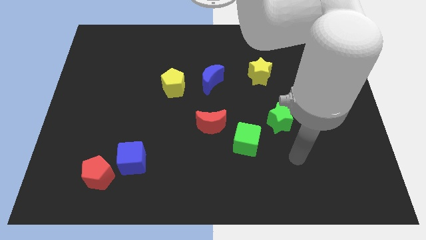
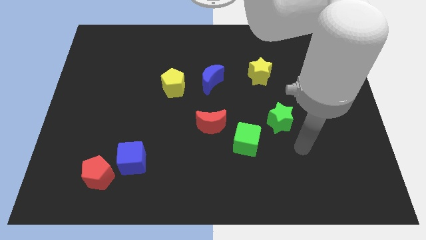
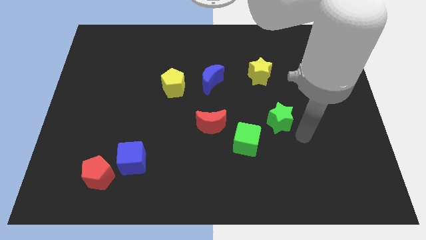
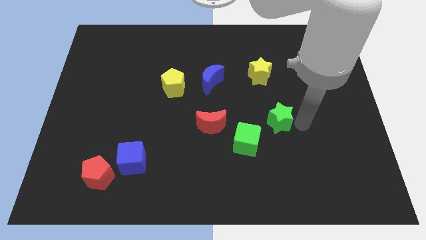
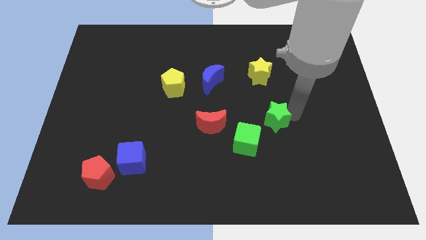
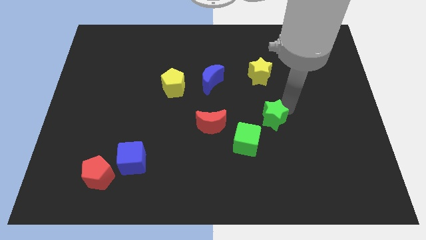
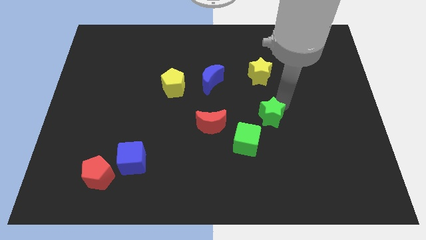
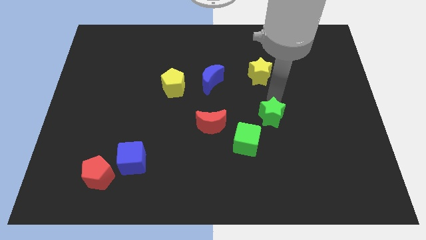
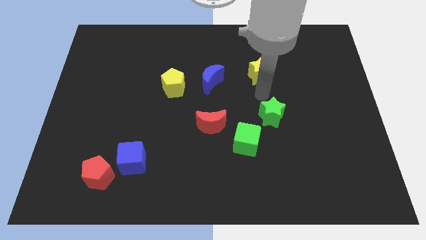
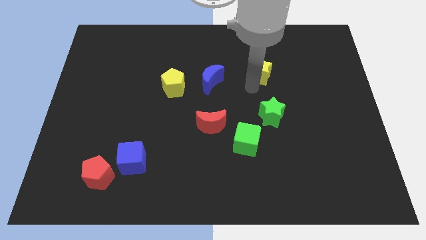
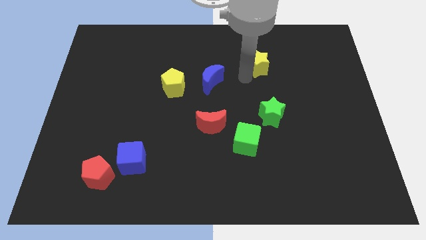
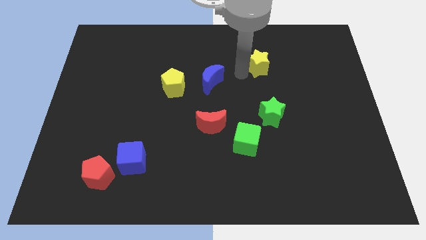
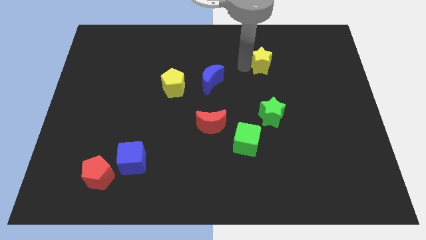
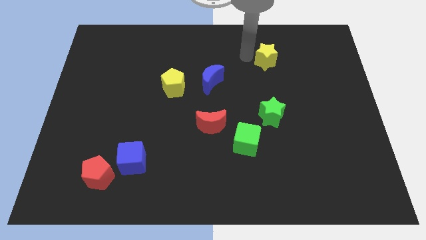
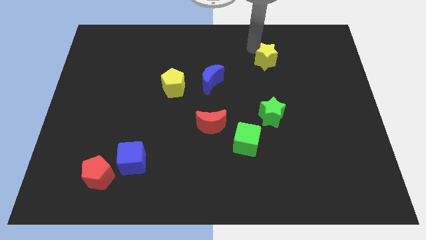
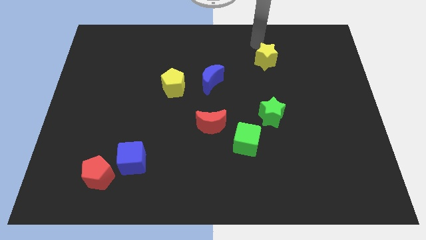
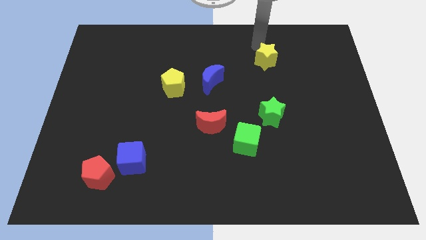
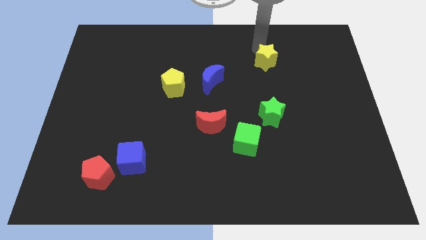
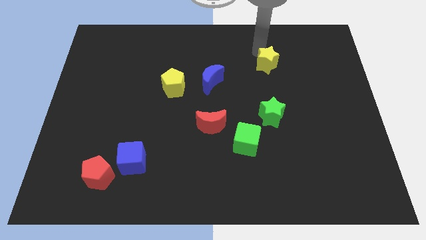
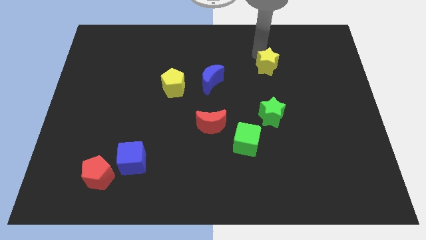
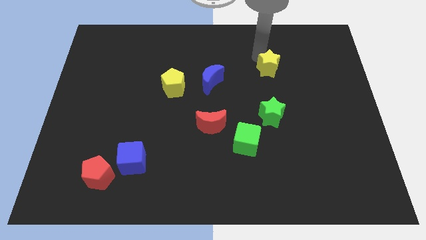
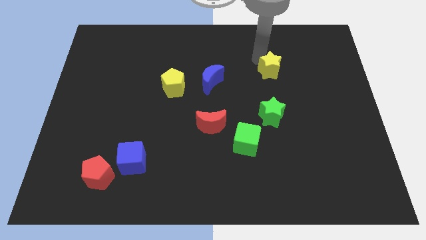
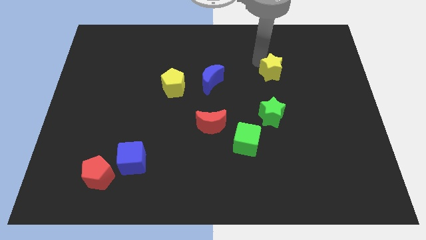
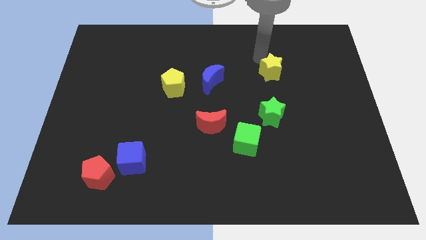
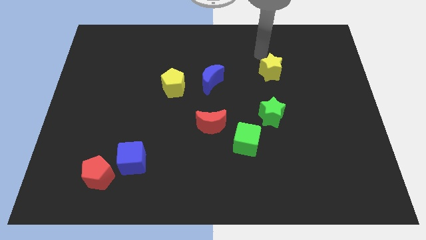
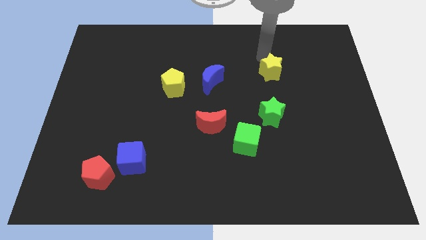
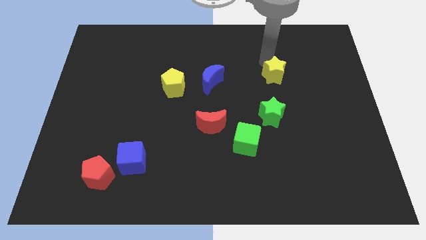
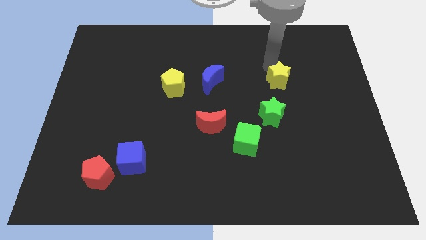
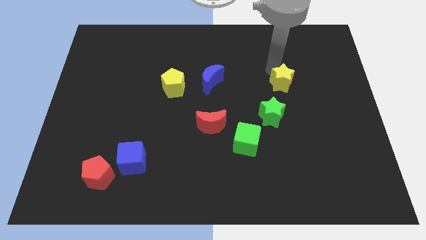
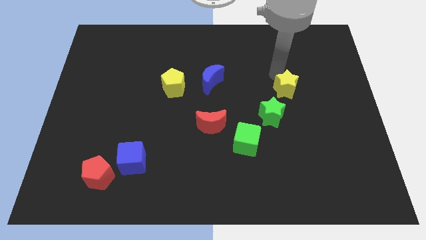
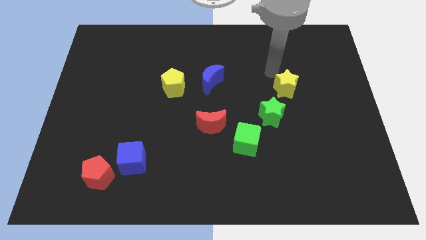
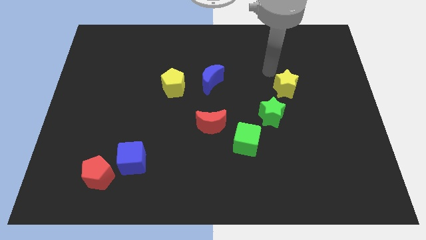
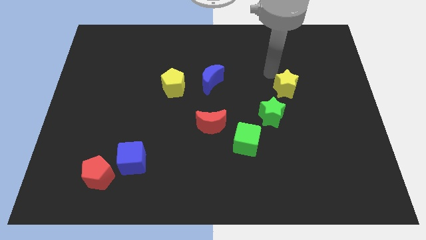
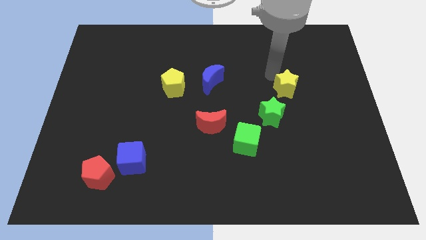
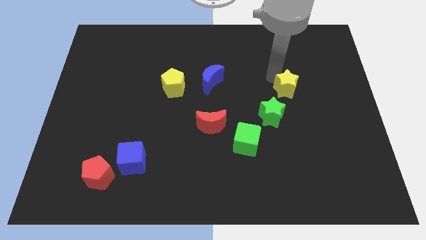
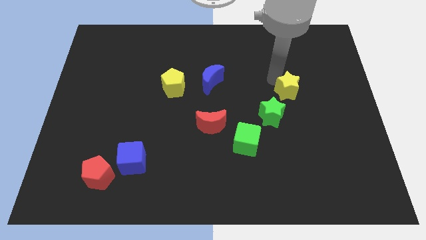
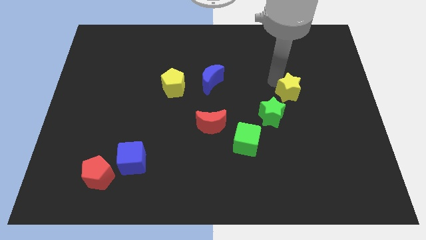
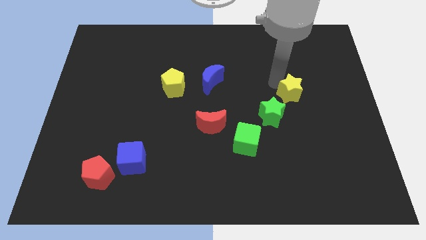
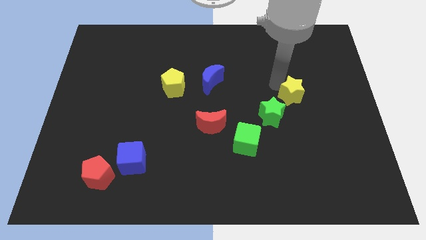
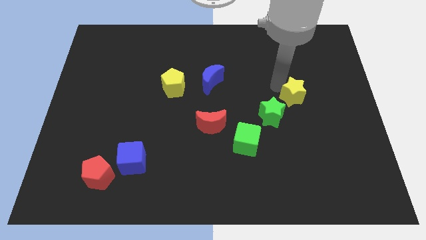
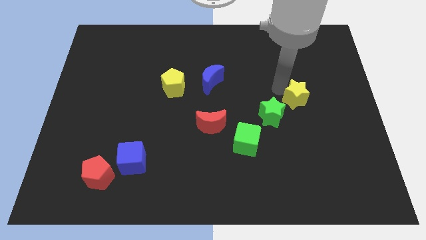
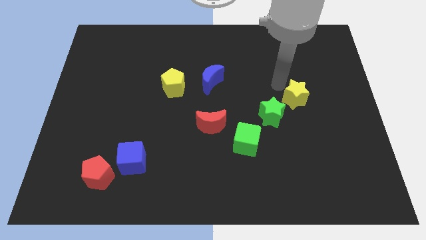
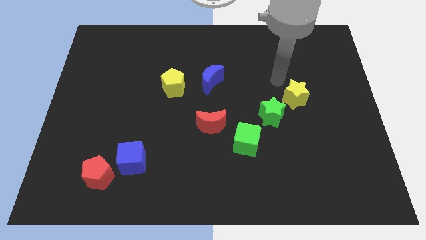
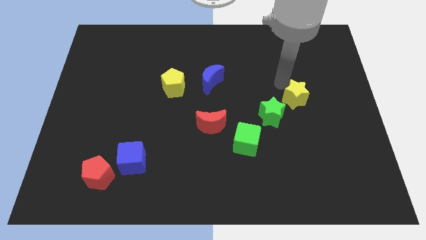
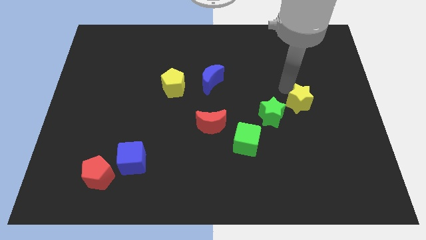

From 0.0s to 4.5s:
move the yellow star just right of the green star

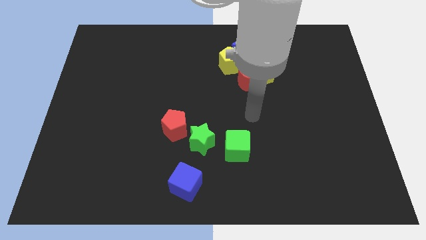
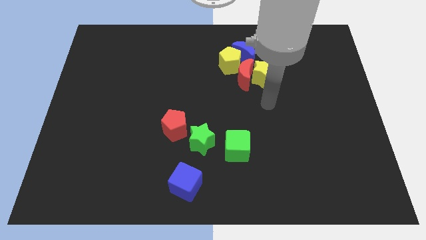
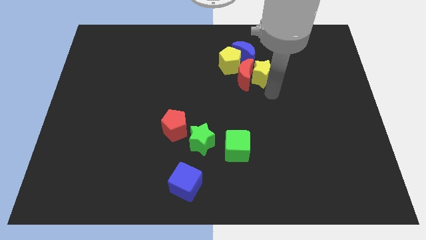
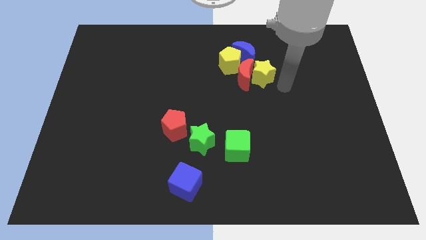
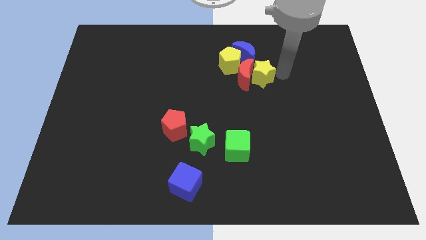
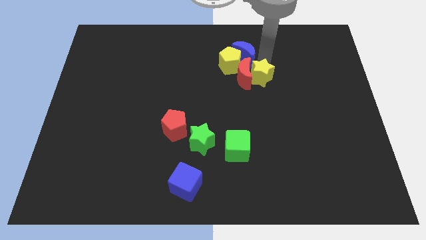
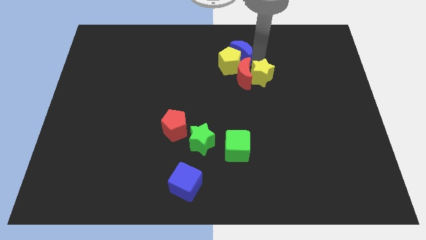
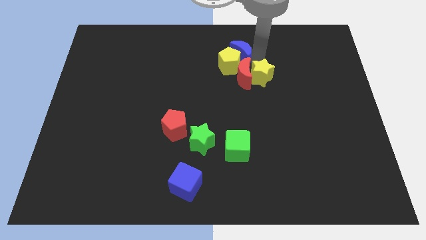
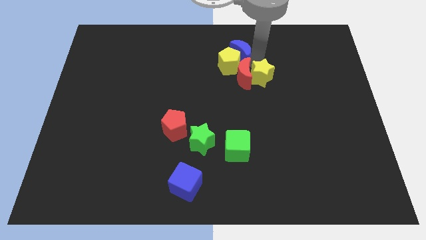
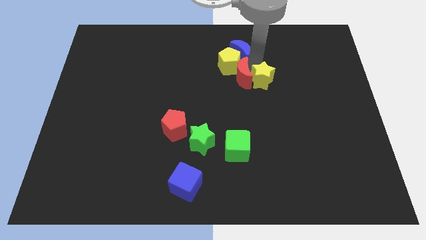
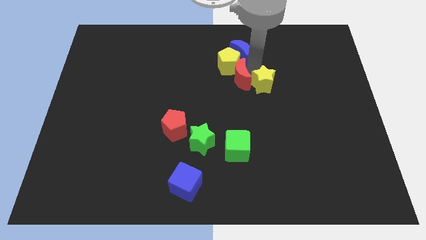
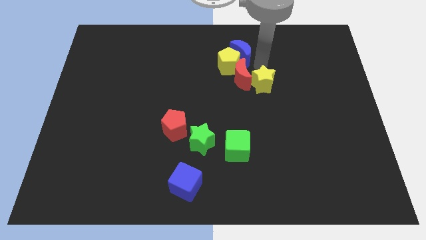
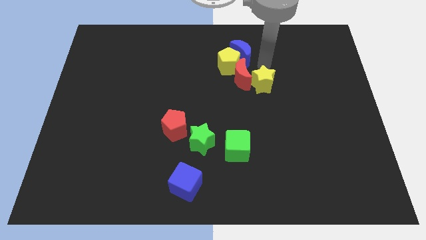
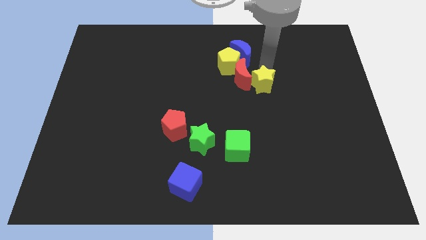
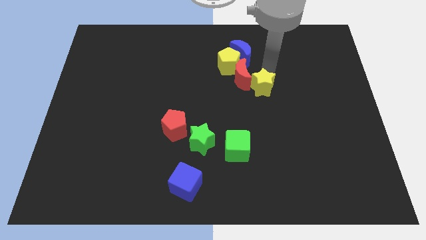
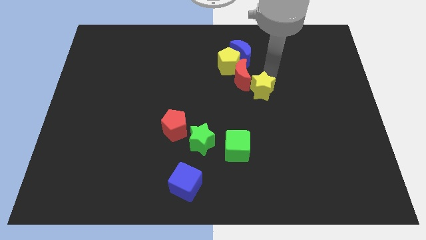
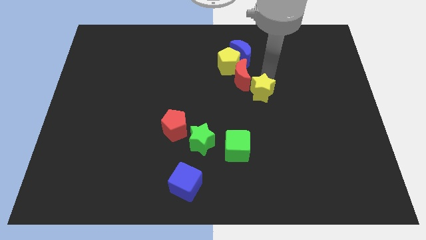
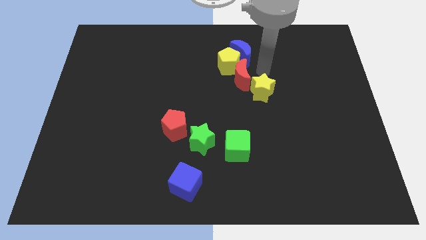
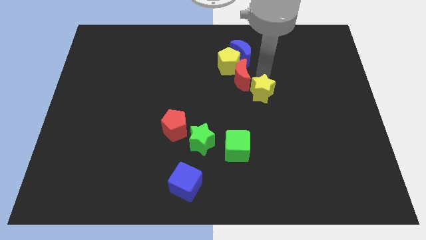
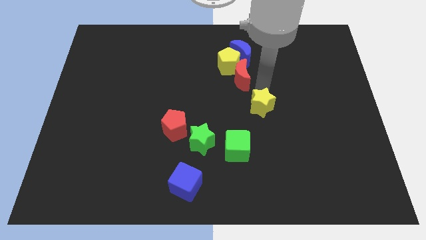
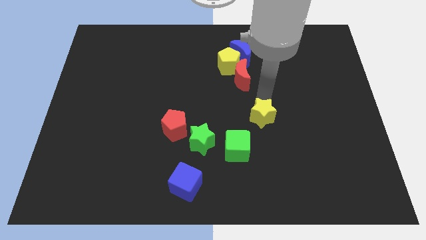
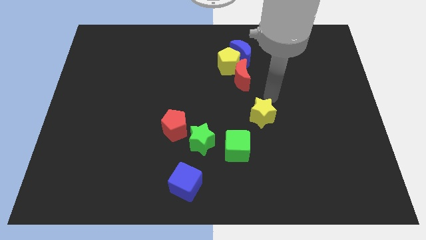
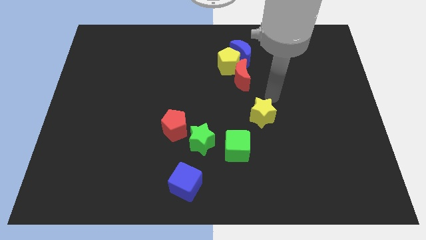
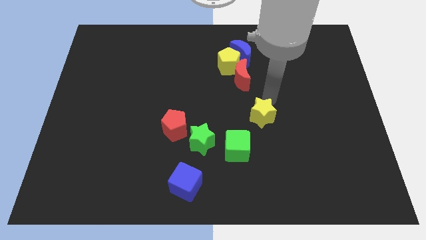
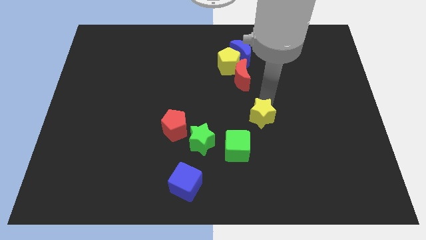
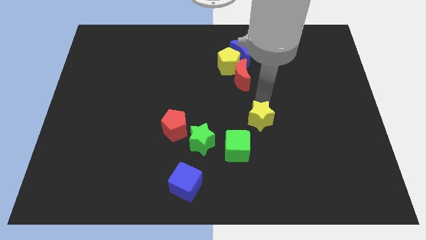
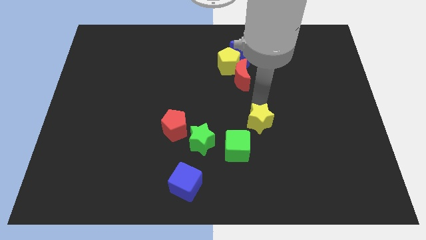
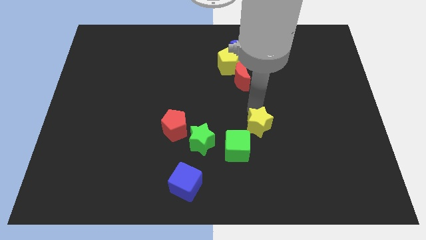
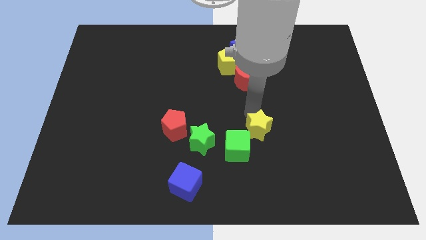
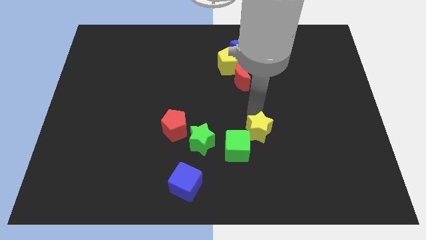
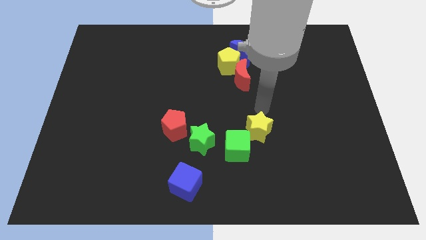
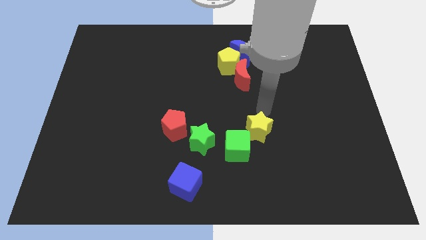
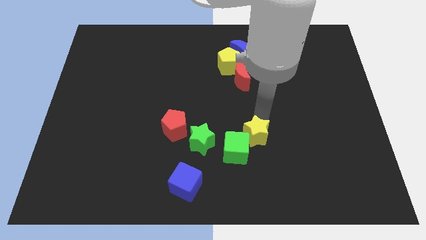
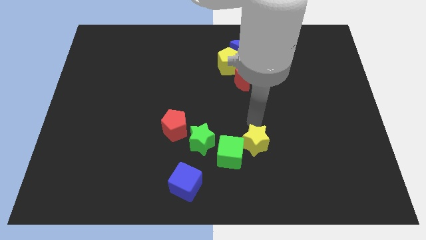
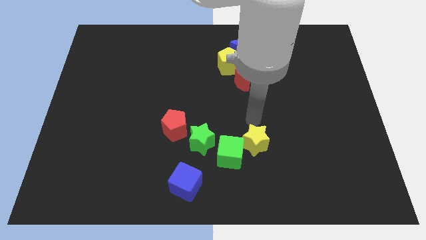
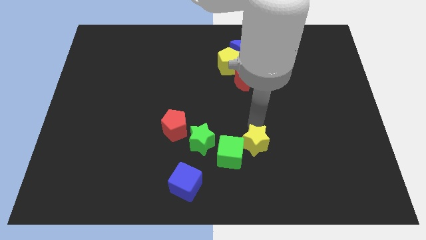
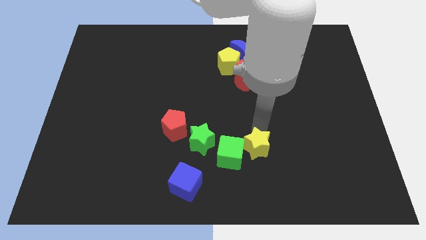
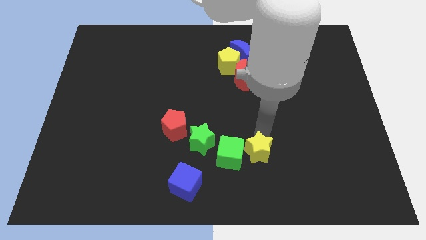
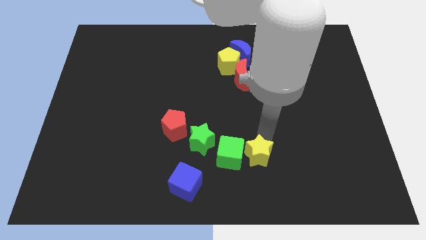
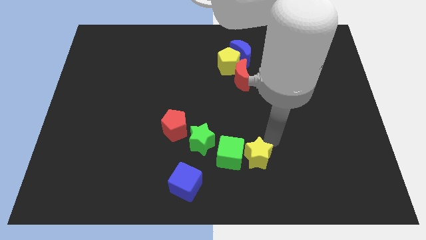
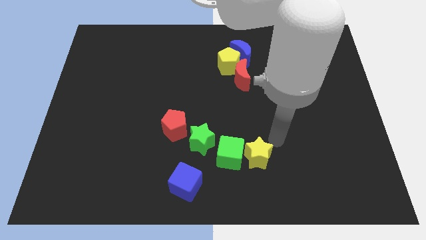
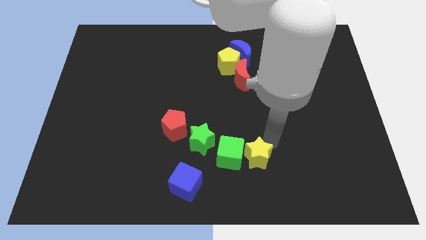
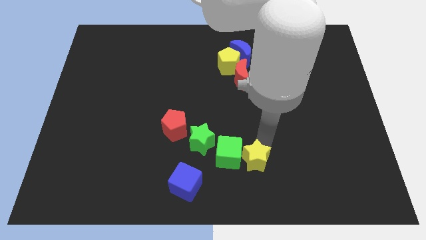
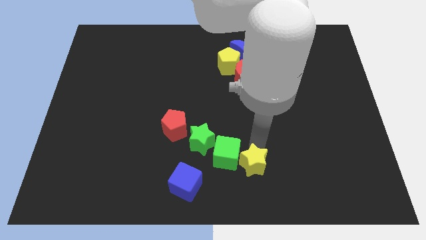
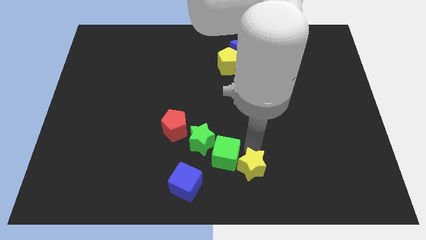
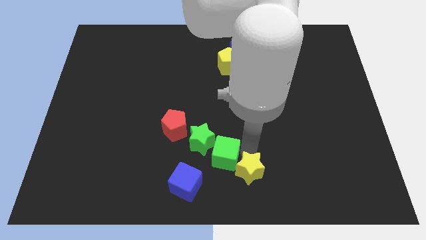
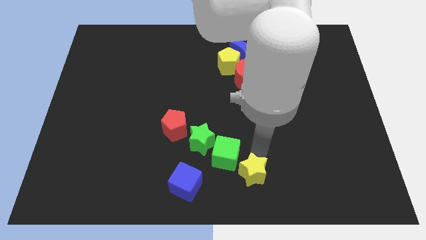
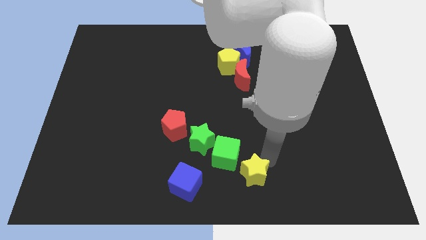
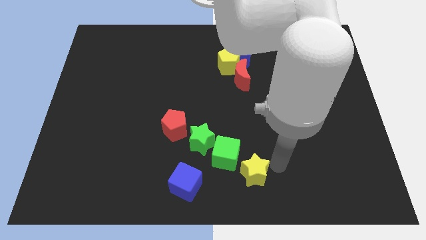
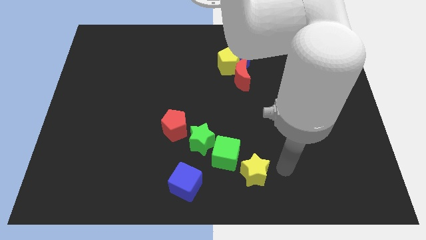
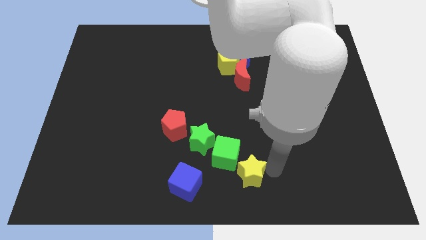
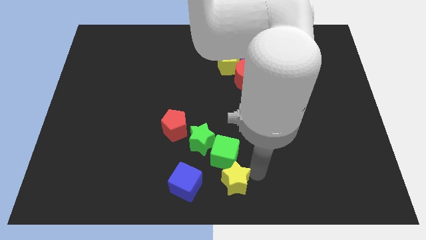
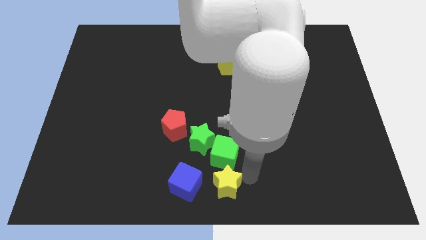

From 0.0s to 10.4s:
slide the yellow star to the bottom left of the green cube
